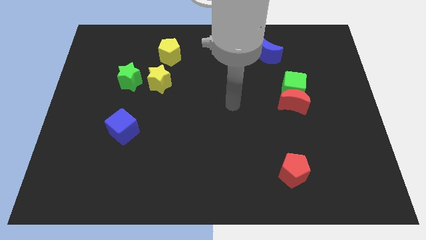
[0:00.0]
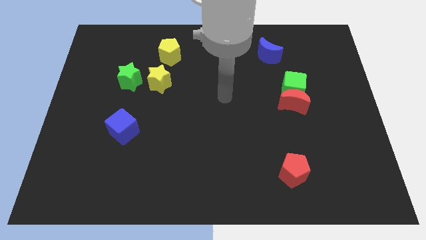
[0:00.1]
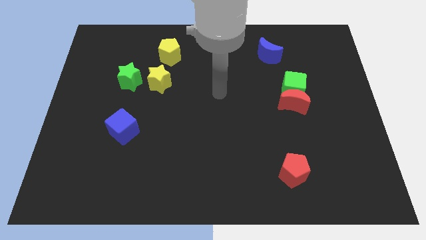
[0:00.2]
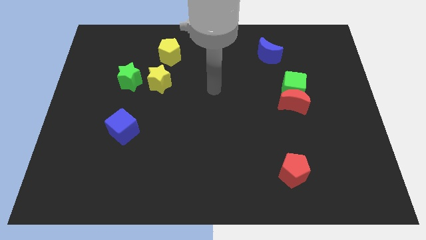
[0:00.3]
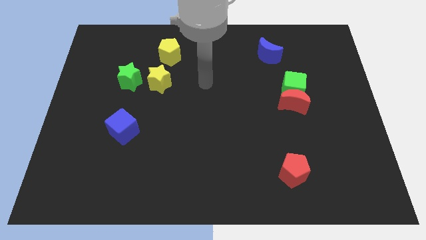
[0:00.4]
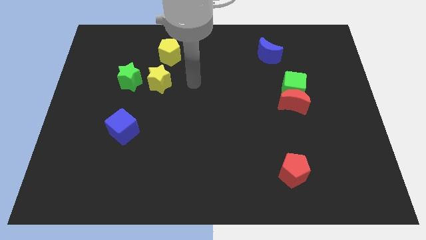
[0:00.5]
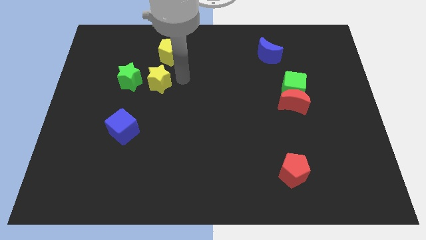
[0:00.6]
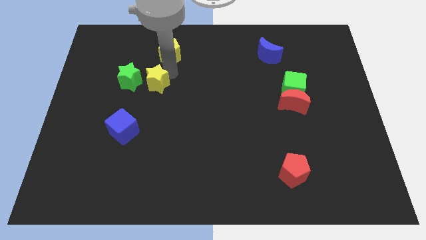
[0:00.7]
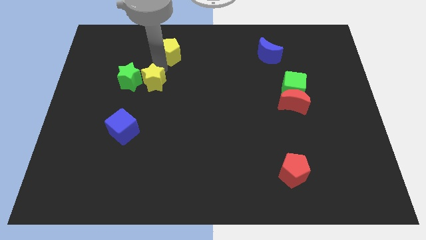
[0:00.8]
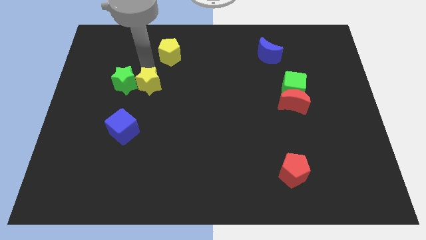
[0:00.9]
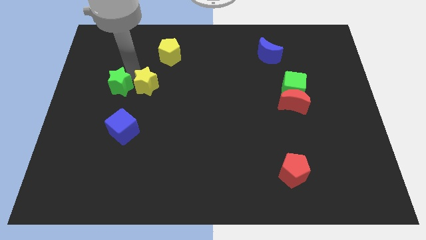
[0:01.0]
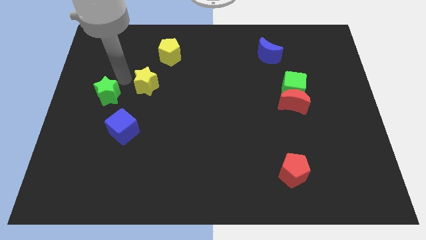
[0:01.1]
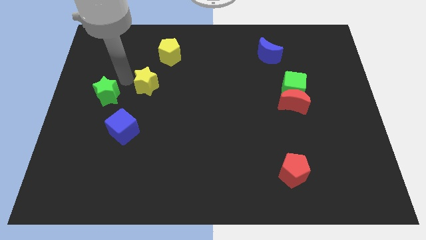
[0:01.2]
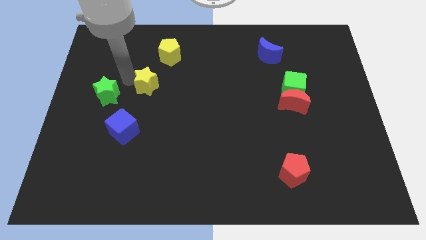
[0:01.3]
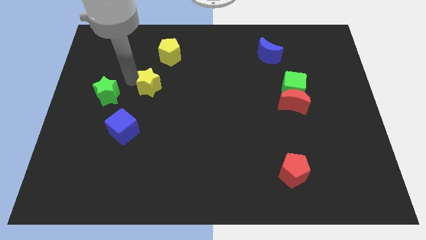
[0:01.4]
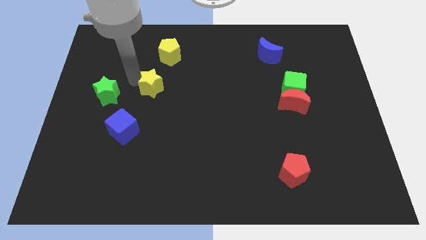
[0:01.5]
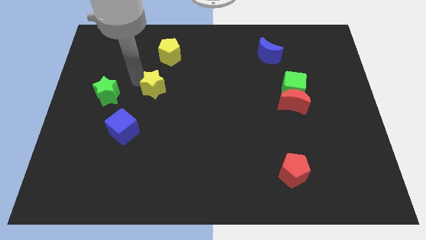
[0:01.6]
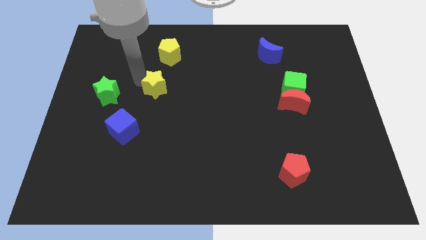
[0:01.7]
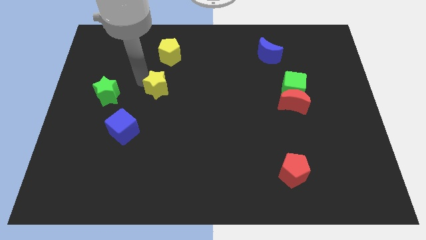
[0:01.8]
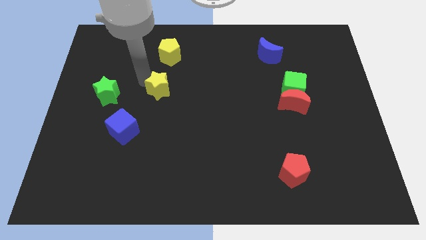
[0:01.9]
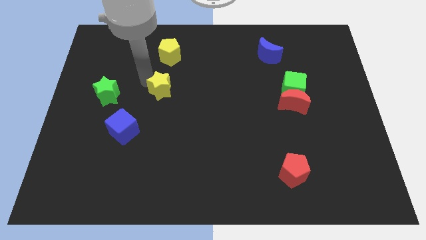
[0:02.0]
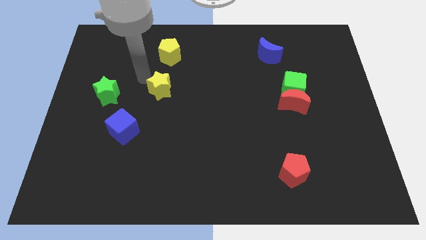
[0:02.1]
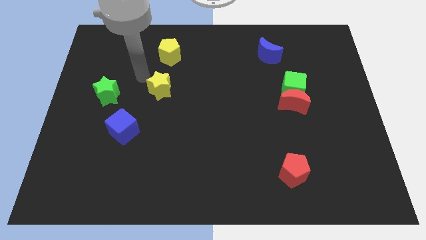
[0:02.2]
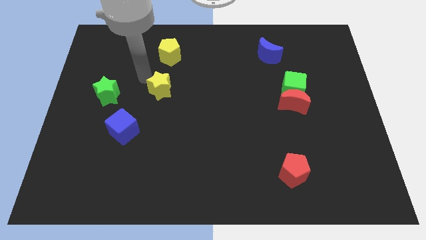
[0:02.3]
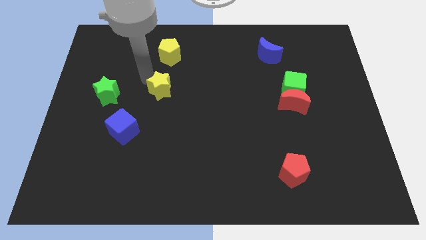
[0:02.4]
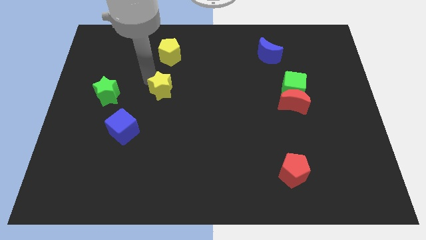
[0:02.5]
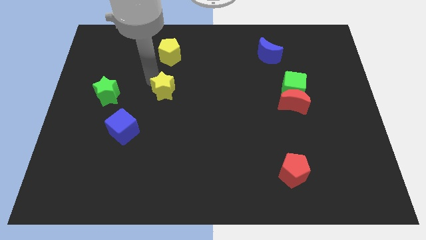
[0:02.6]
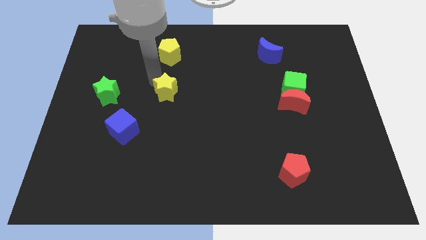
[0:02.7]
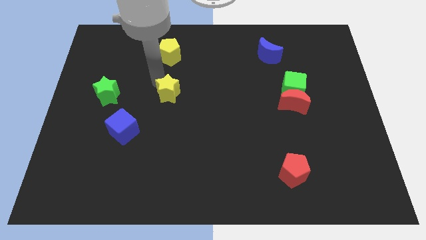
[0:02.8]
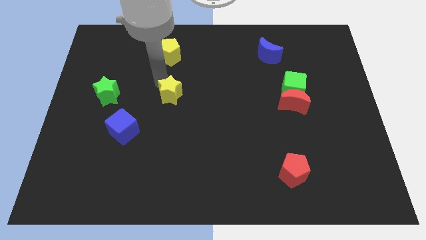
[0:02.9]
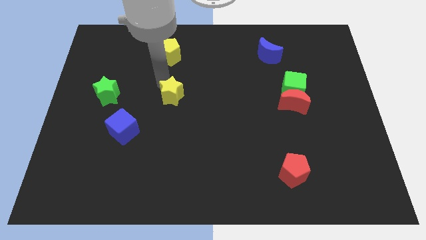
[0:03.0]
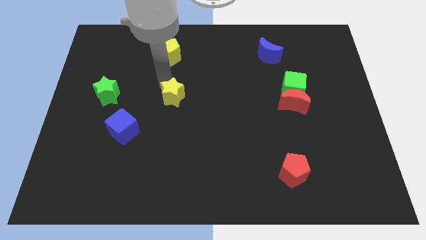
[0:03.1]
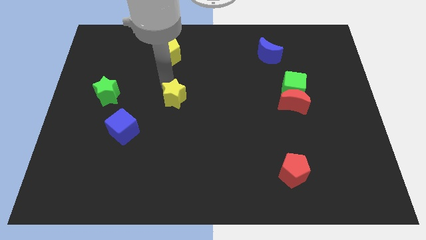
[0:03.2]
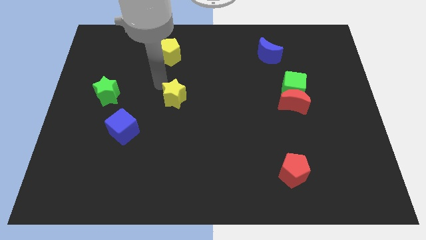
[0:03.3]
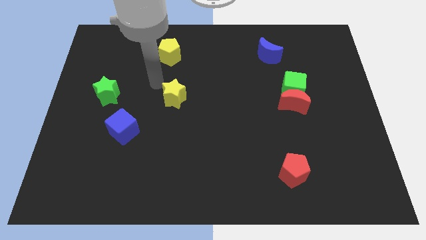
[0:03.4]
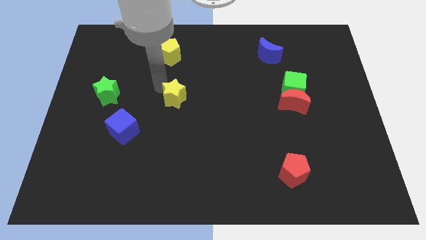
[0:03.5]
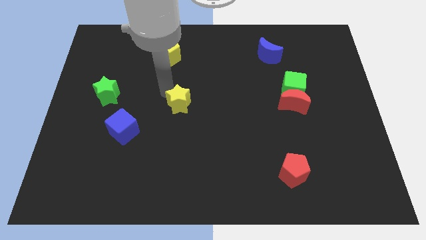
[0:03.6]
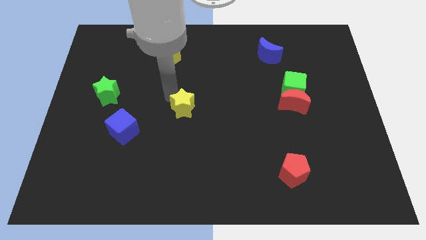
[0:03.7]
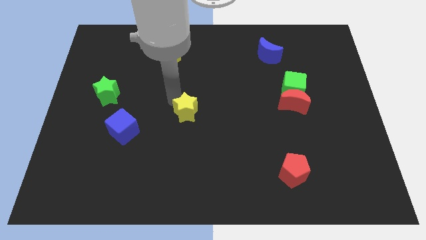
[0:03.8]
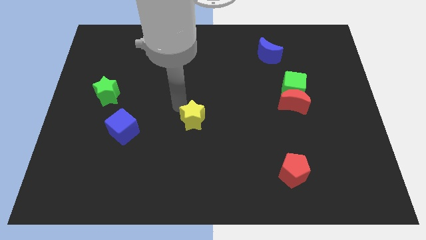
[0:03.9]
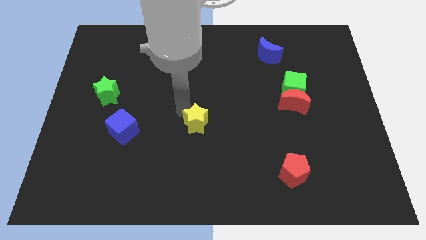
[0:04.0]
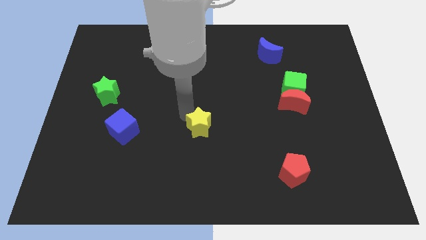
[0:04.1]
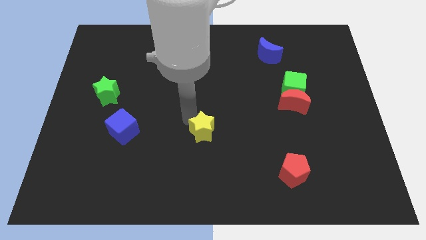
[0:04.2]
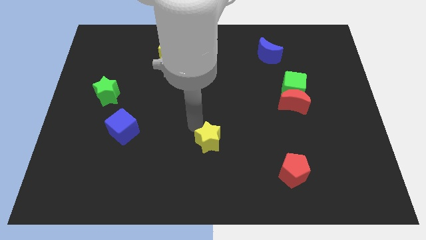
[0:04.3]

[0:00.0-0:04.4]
push the yellow star downwards and then to the right

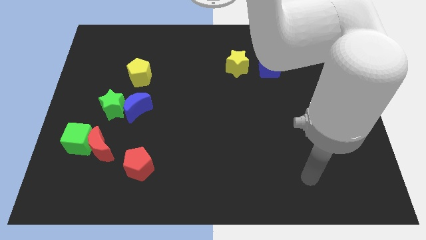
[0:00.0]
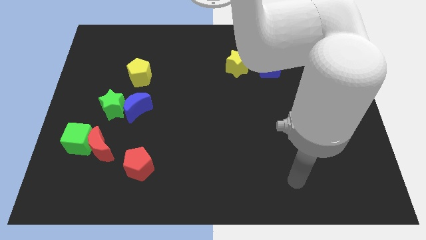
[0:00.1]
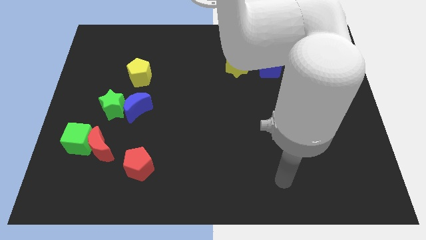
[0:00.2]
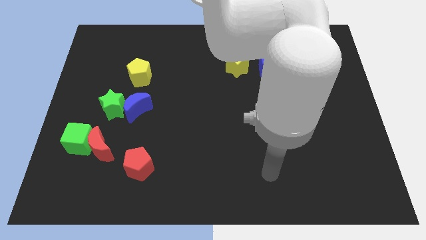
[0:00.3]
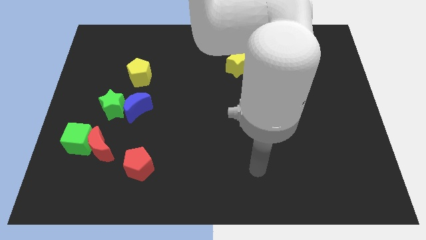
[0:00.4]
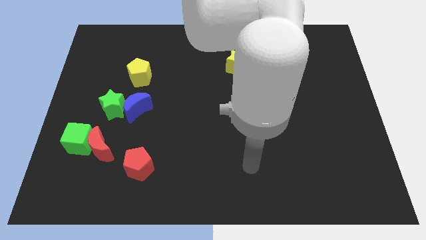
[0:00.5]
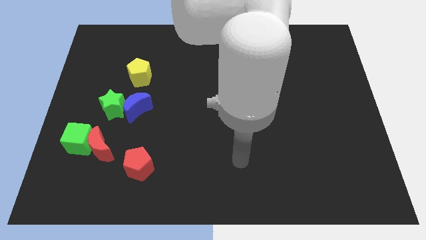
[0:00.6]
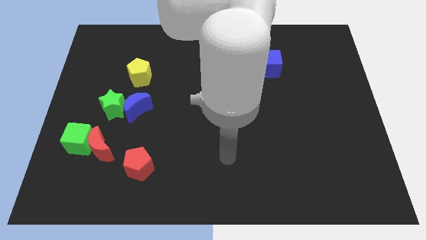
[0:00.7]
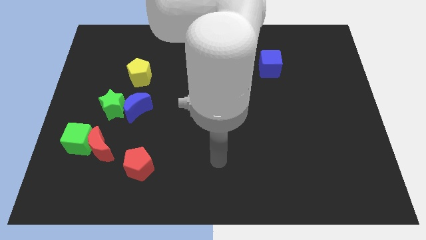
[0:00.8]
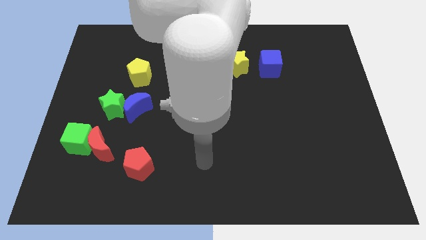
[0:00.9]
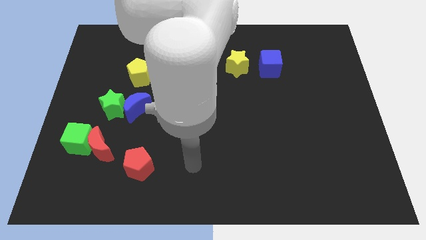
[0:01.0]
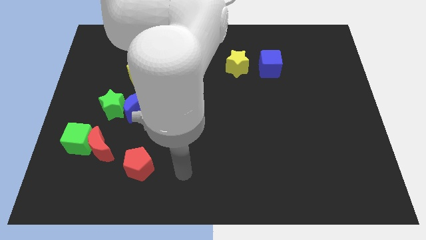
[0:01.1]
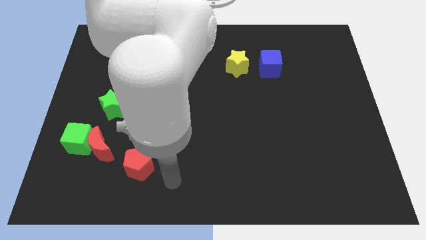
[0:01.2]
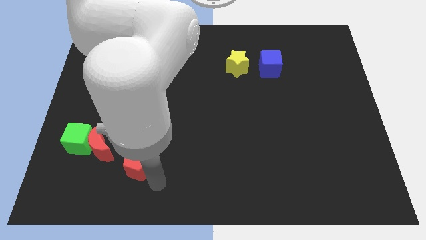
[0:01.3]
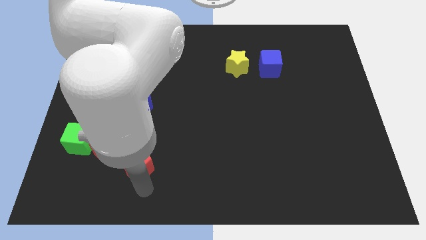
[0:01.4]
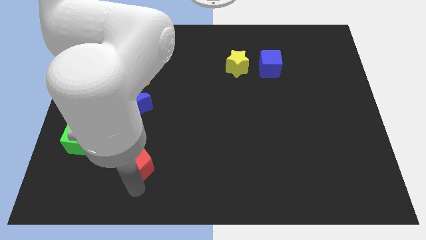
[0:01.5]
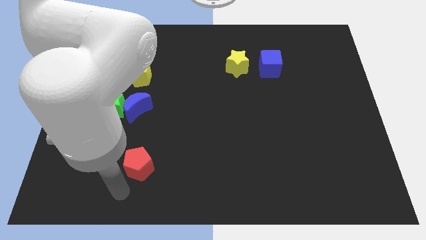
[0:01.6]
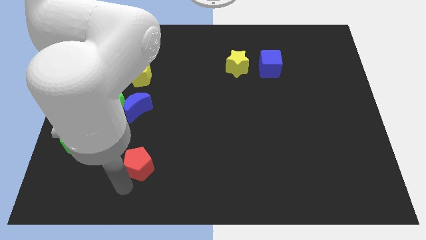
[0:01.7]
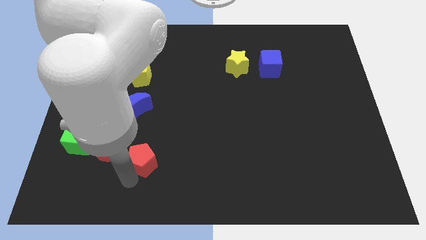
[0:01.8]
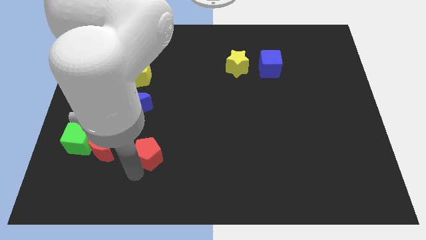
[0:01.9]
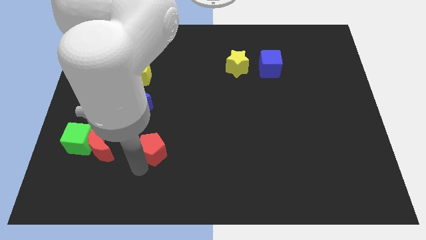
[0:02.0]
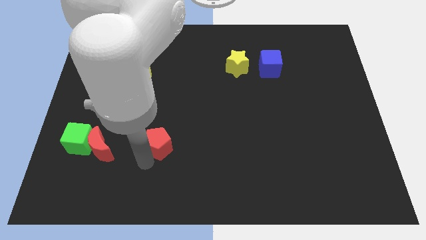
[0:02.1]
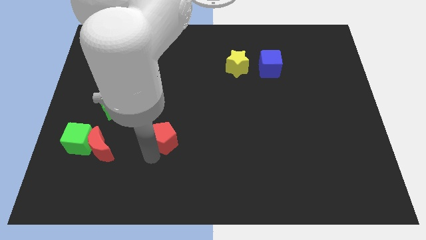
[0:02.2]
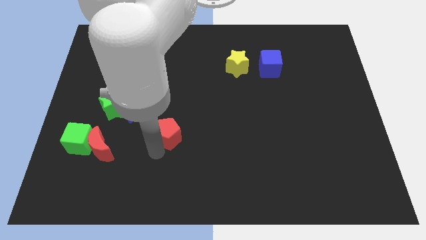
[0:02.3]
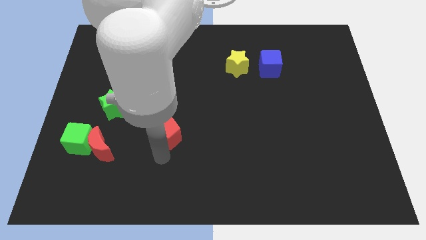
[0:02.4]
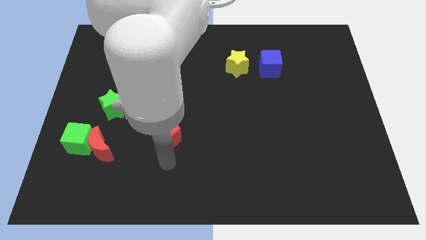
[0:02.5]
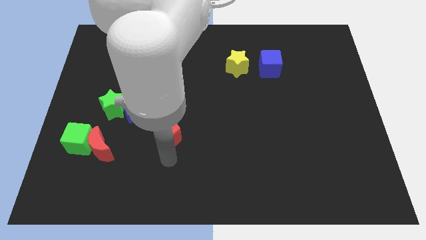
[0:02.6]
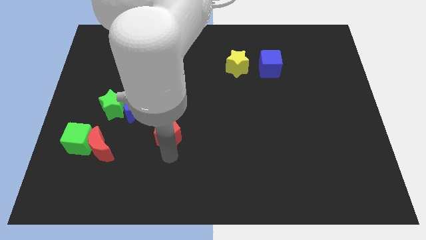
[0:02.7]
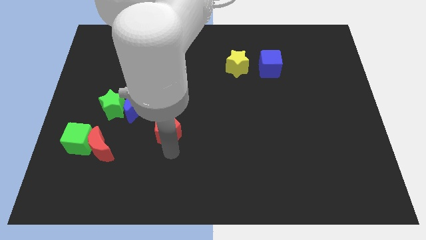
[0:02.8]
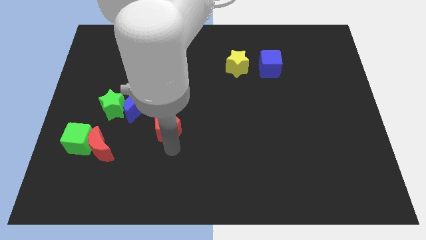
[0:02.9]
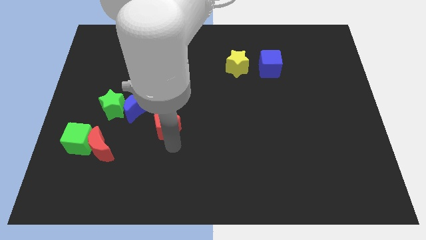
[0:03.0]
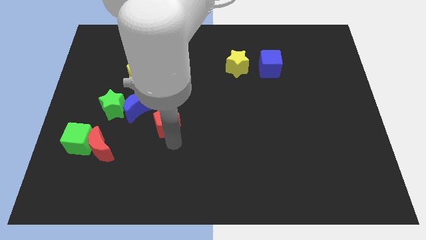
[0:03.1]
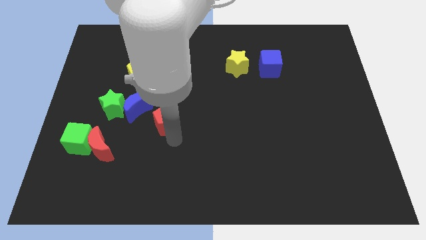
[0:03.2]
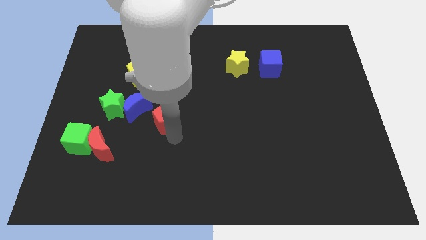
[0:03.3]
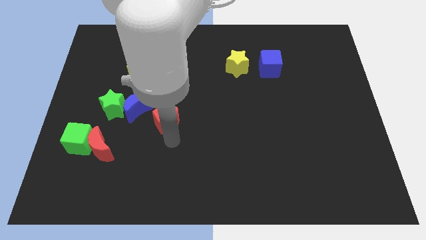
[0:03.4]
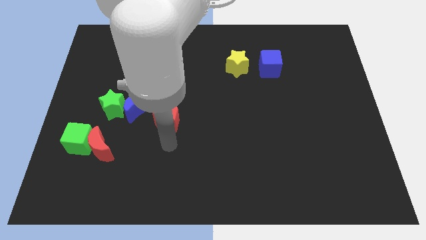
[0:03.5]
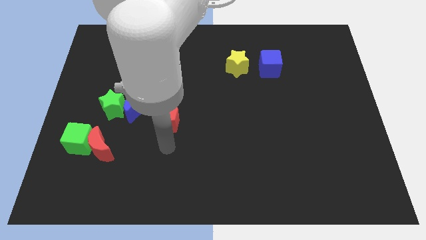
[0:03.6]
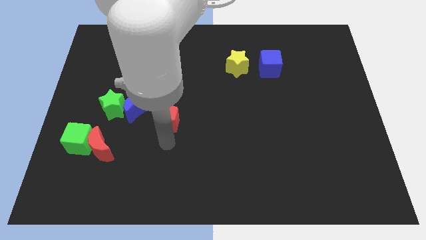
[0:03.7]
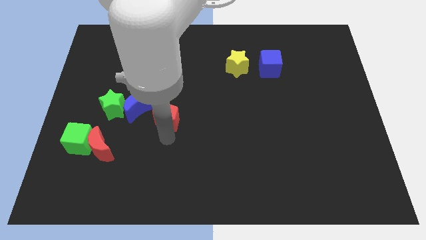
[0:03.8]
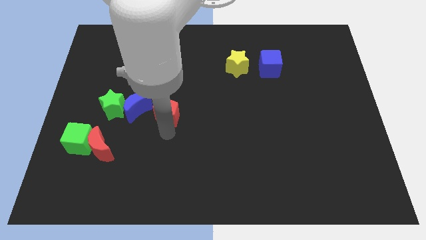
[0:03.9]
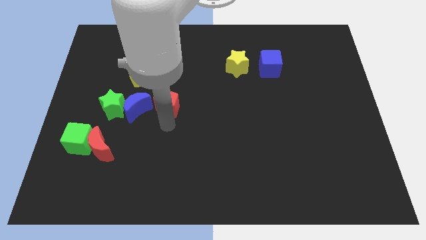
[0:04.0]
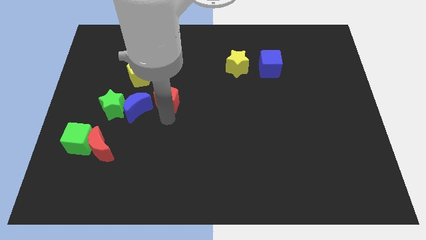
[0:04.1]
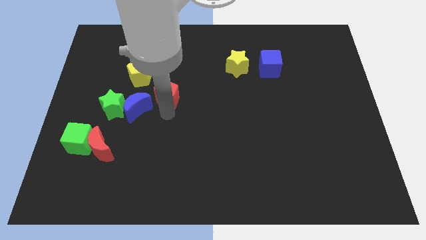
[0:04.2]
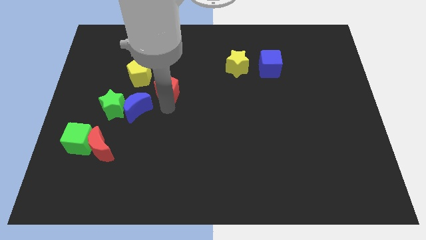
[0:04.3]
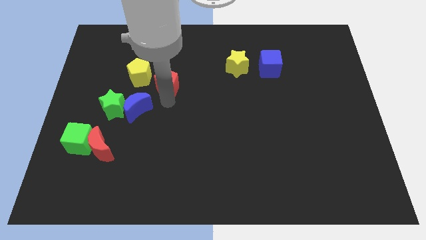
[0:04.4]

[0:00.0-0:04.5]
slide the red pentagon up
